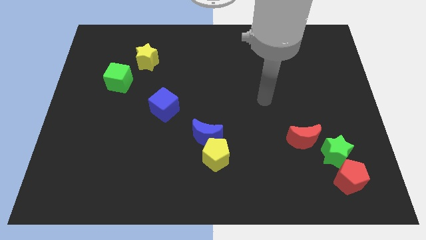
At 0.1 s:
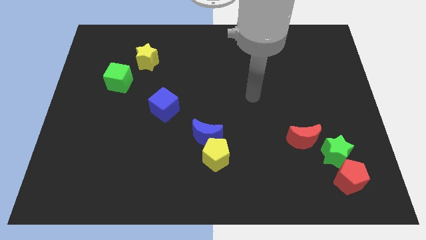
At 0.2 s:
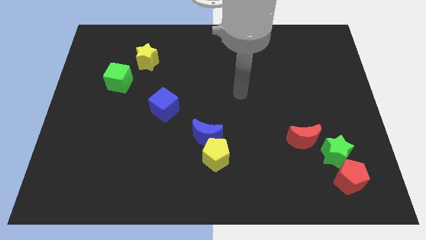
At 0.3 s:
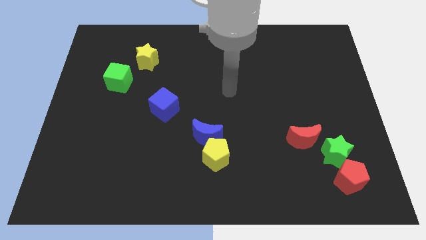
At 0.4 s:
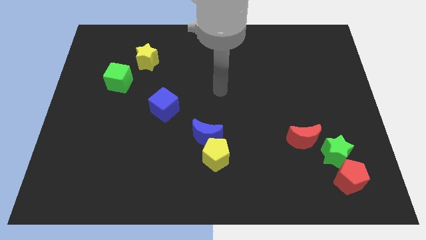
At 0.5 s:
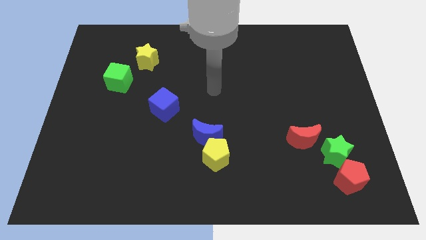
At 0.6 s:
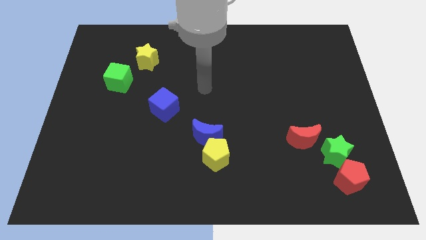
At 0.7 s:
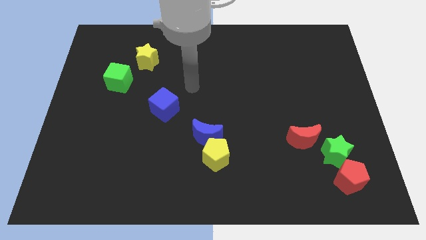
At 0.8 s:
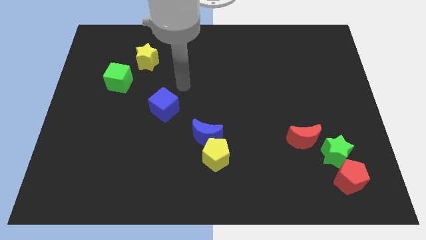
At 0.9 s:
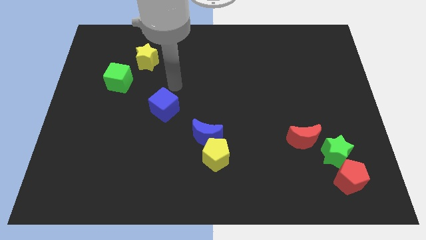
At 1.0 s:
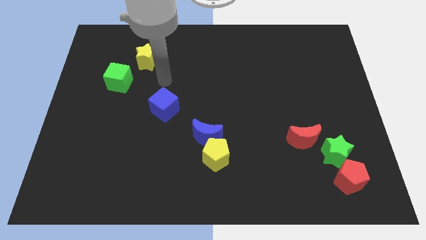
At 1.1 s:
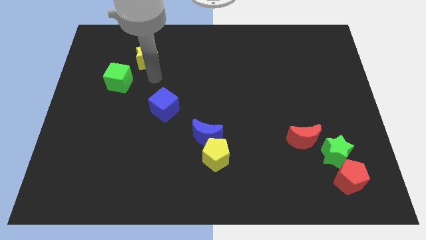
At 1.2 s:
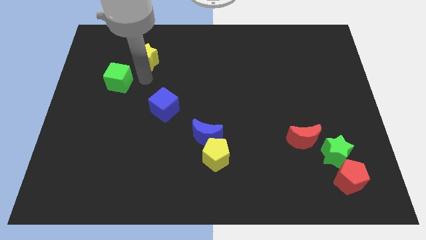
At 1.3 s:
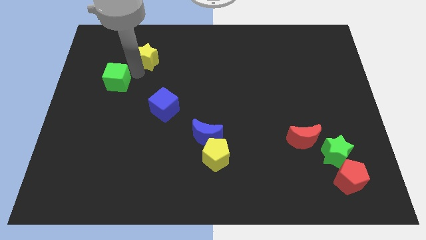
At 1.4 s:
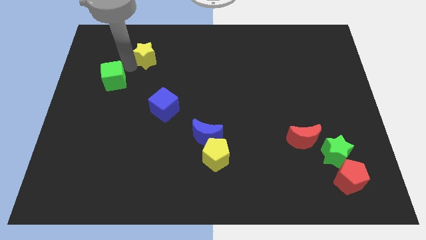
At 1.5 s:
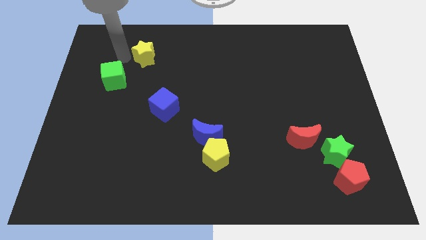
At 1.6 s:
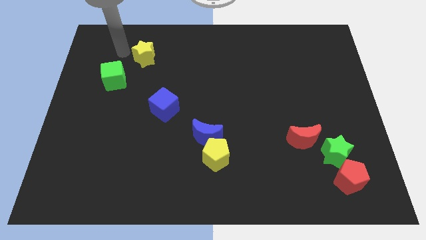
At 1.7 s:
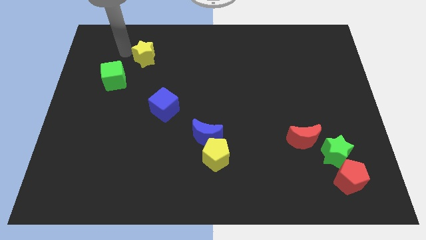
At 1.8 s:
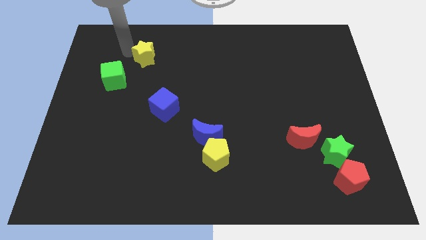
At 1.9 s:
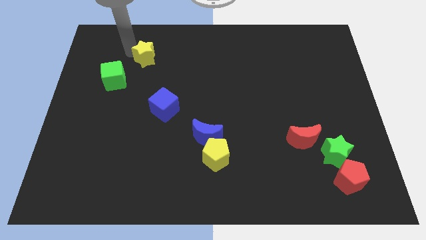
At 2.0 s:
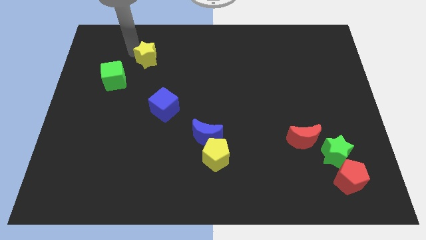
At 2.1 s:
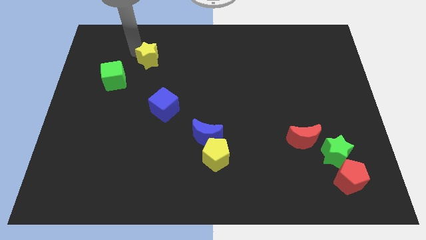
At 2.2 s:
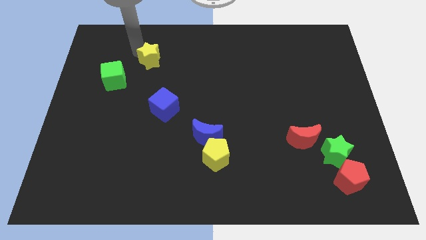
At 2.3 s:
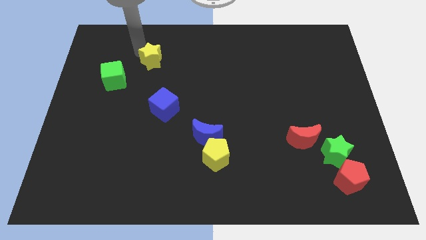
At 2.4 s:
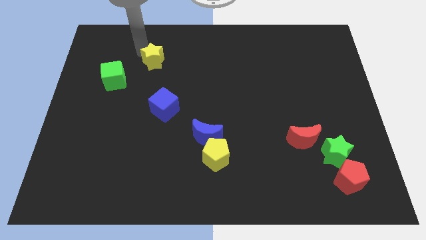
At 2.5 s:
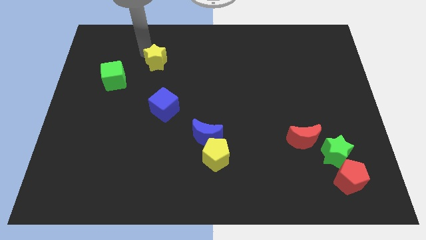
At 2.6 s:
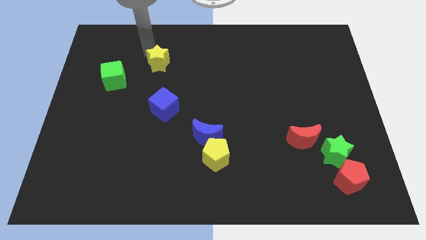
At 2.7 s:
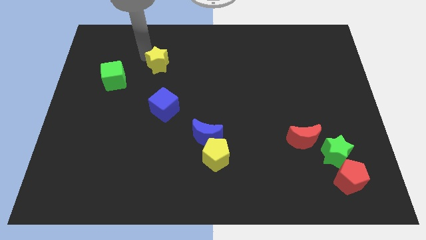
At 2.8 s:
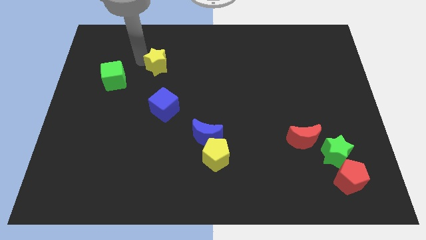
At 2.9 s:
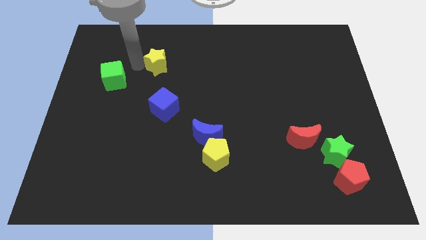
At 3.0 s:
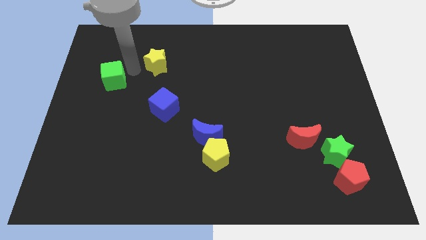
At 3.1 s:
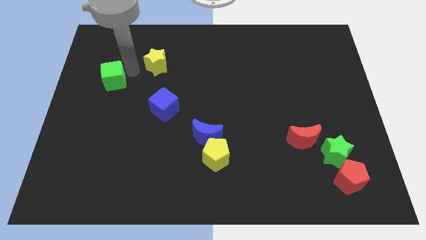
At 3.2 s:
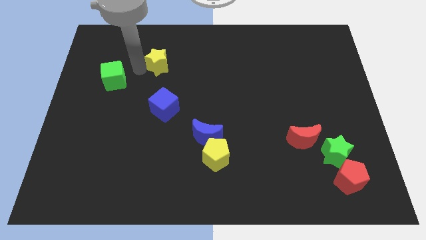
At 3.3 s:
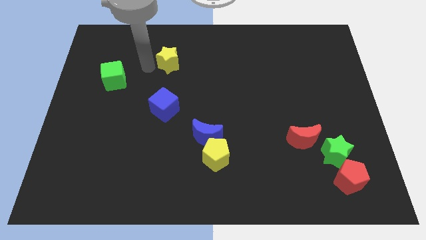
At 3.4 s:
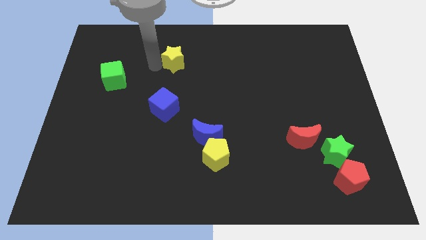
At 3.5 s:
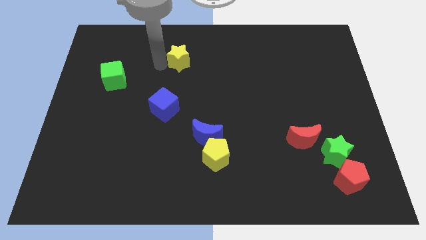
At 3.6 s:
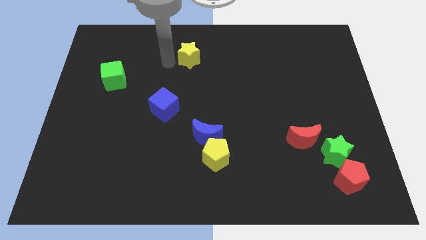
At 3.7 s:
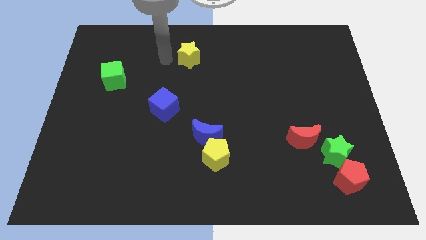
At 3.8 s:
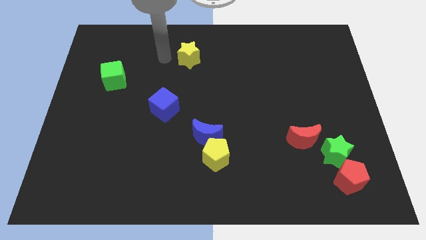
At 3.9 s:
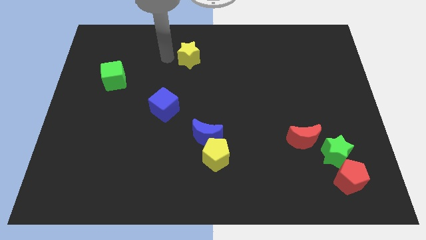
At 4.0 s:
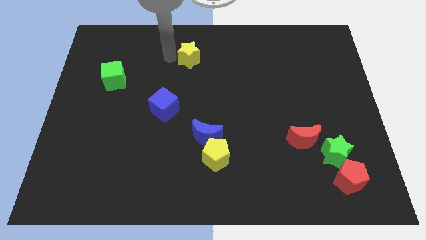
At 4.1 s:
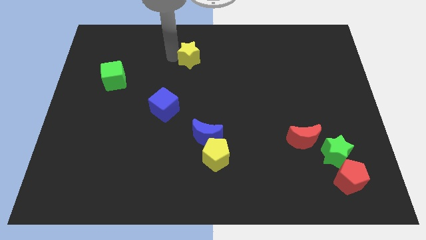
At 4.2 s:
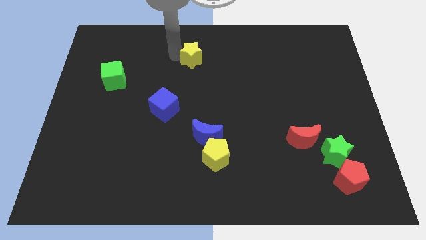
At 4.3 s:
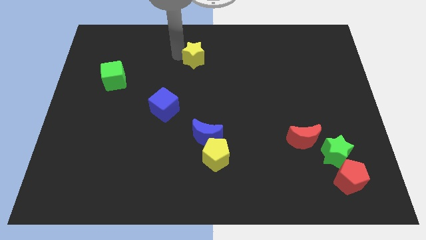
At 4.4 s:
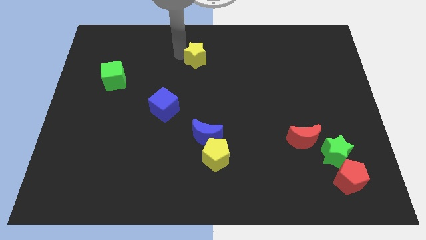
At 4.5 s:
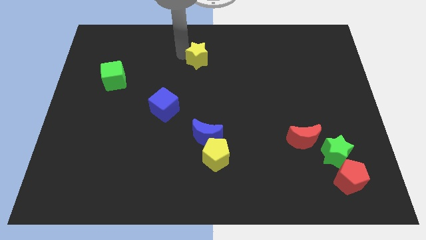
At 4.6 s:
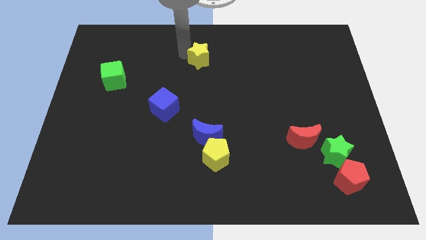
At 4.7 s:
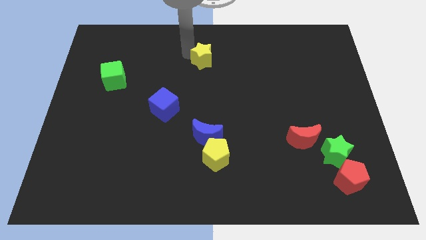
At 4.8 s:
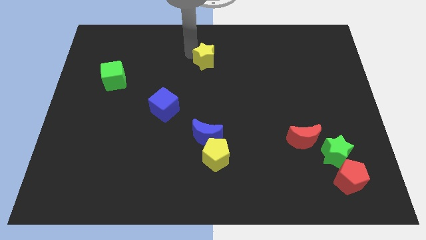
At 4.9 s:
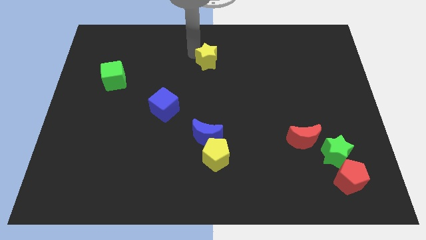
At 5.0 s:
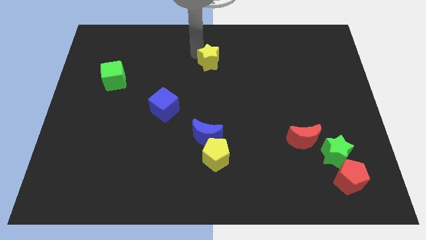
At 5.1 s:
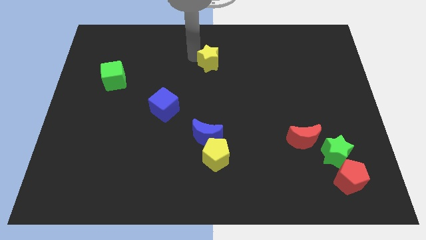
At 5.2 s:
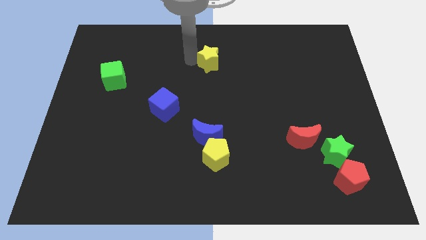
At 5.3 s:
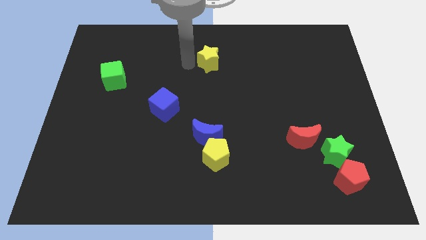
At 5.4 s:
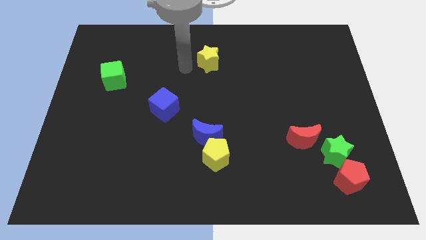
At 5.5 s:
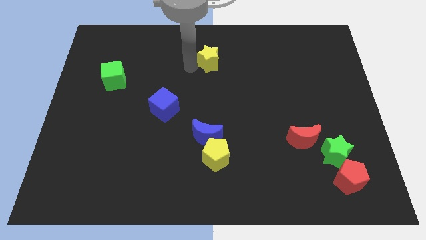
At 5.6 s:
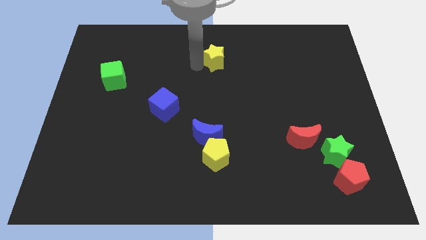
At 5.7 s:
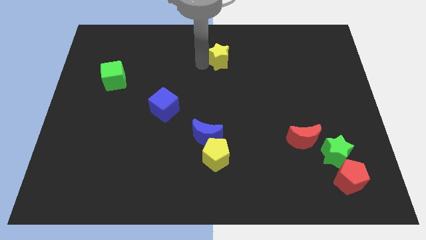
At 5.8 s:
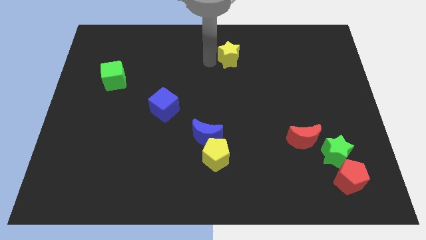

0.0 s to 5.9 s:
move the yellow star right

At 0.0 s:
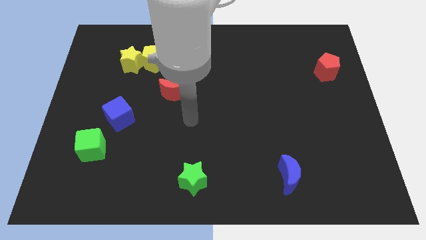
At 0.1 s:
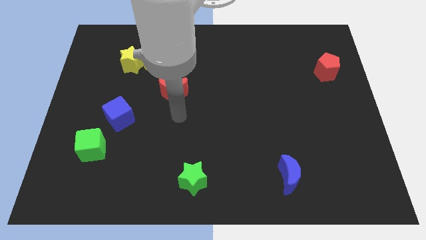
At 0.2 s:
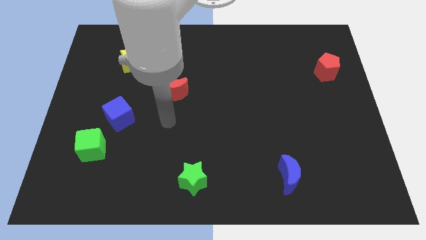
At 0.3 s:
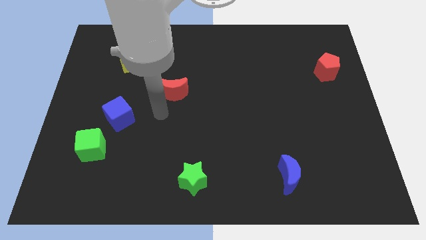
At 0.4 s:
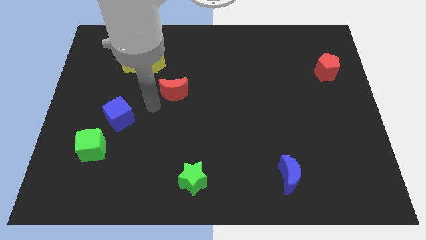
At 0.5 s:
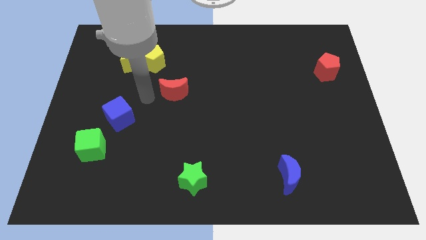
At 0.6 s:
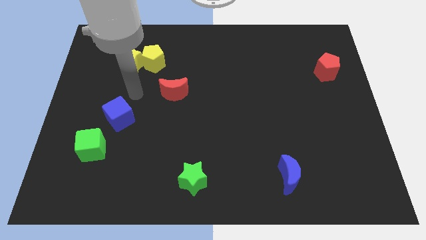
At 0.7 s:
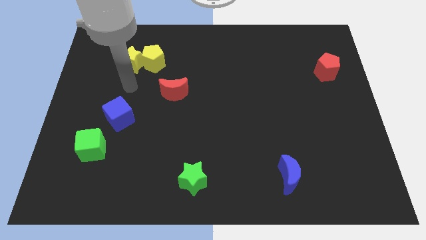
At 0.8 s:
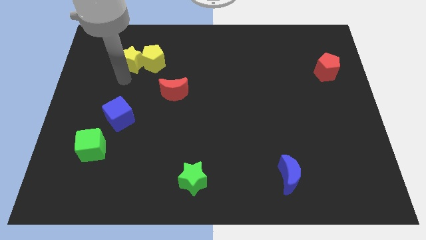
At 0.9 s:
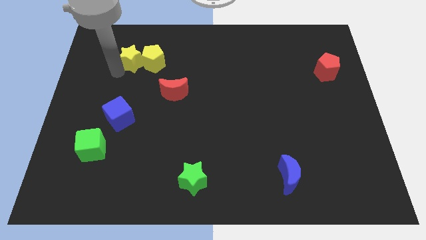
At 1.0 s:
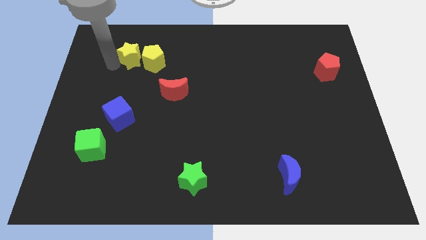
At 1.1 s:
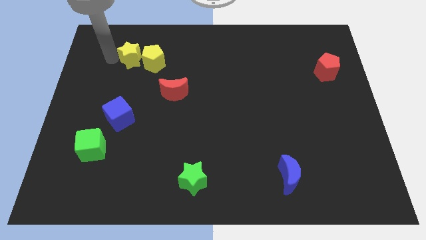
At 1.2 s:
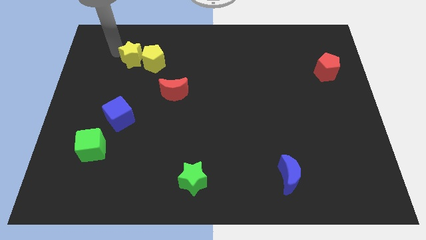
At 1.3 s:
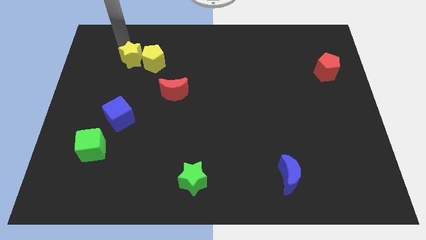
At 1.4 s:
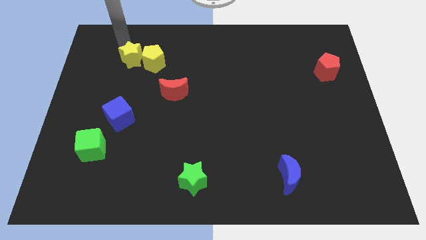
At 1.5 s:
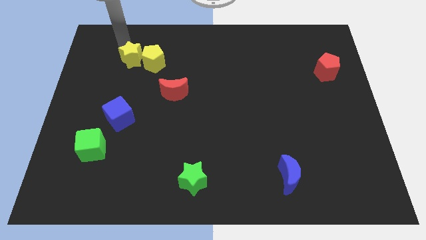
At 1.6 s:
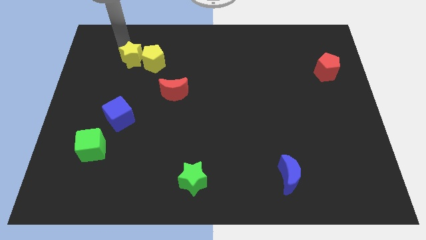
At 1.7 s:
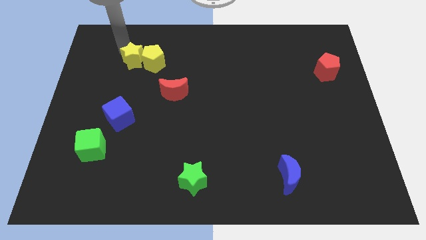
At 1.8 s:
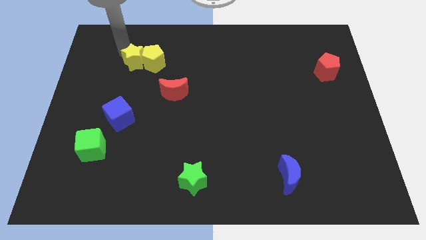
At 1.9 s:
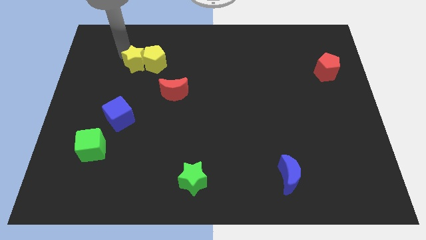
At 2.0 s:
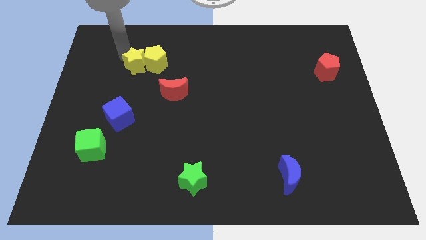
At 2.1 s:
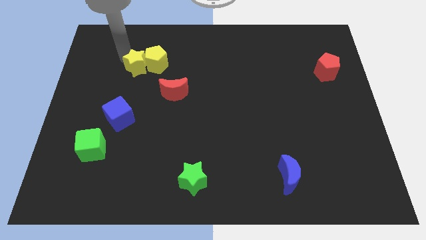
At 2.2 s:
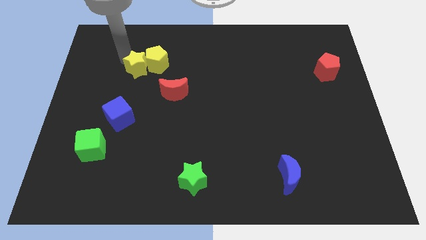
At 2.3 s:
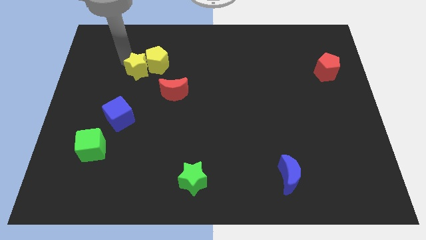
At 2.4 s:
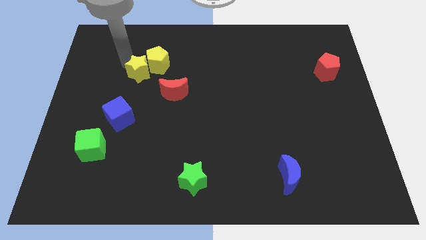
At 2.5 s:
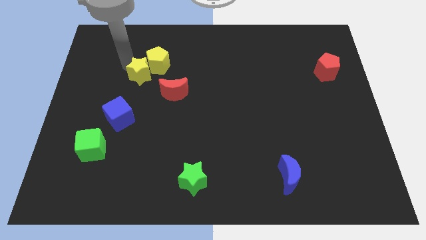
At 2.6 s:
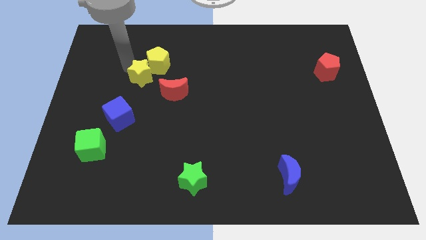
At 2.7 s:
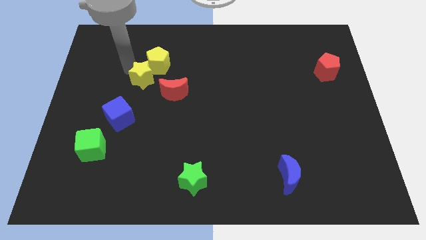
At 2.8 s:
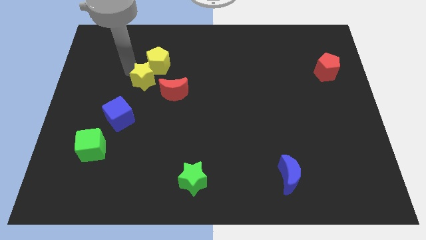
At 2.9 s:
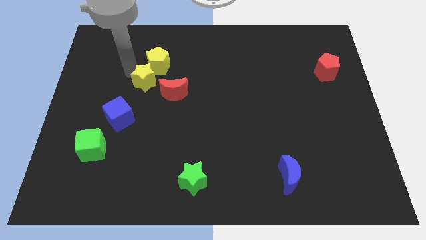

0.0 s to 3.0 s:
slightly push the yellow star downwards and then to the right
